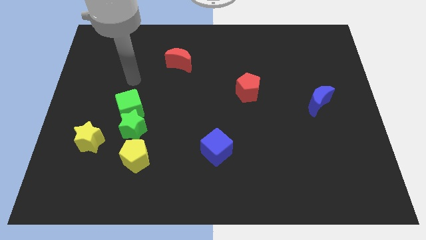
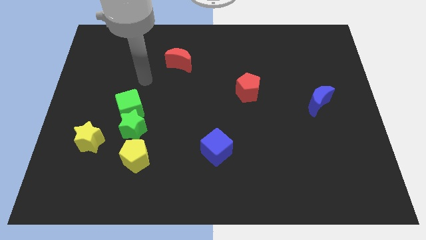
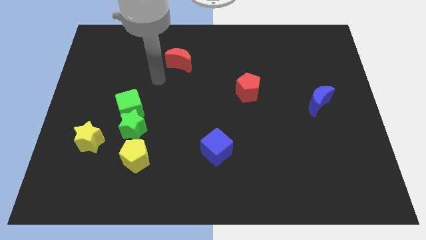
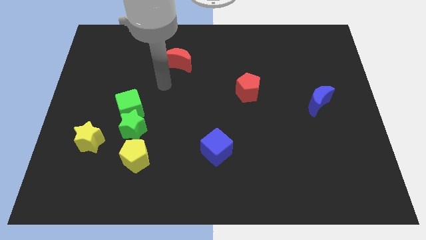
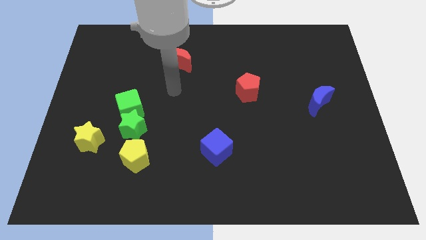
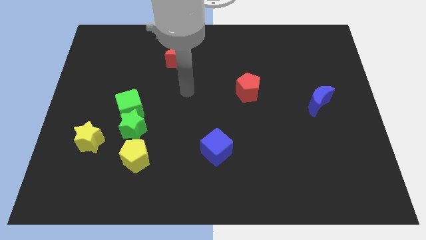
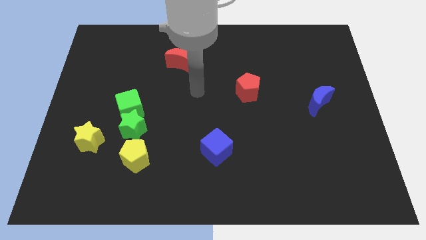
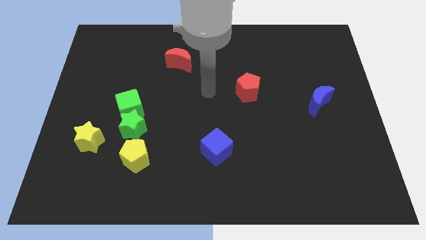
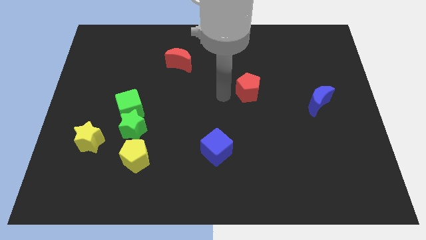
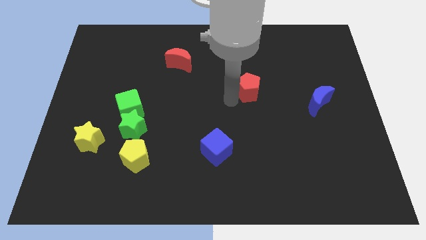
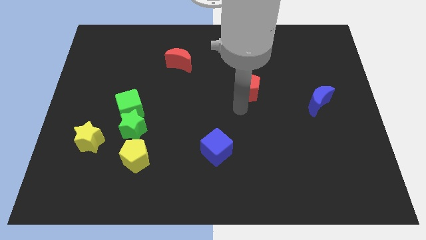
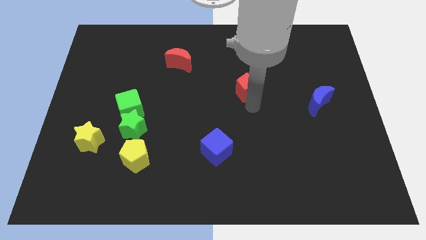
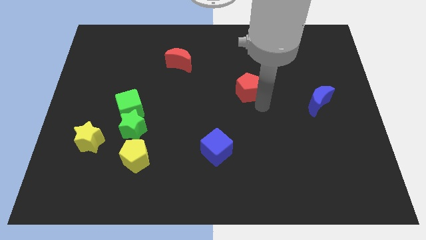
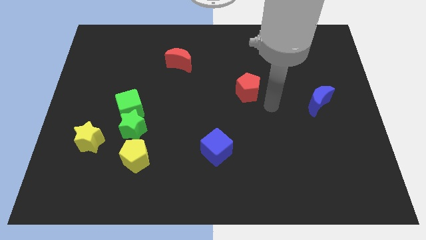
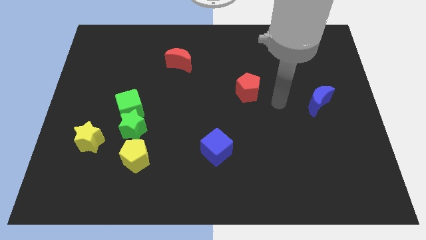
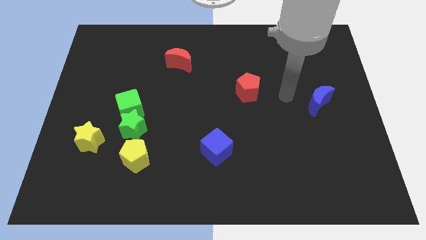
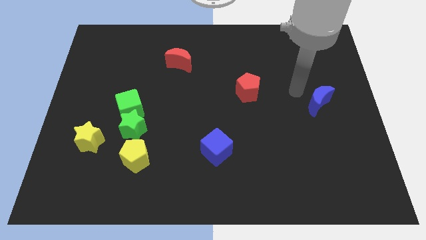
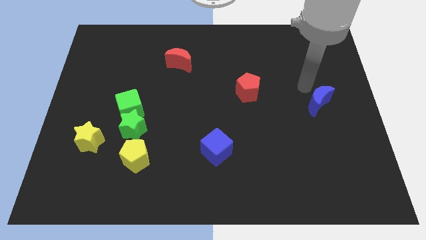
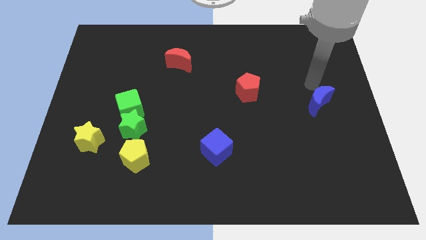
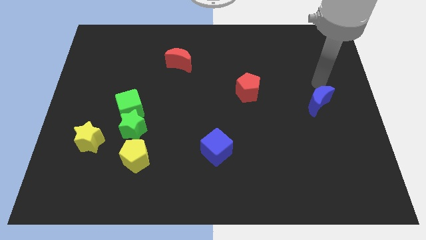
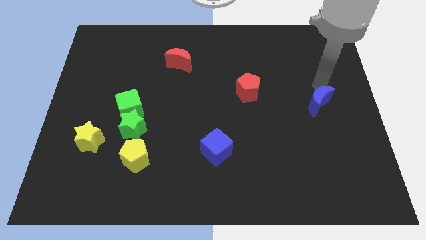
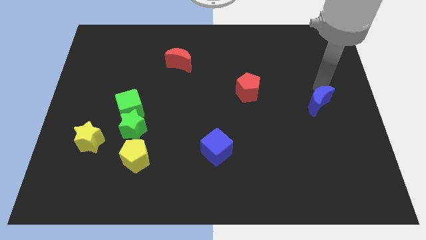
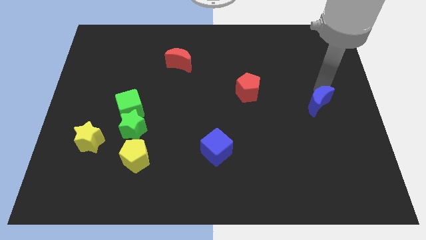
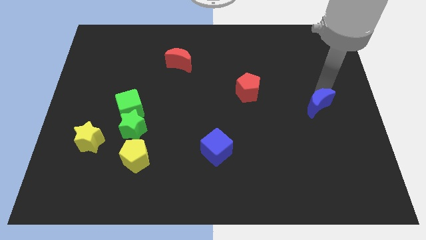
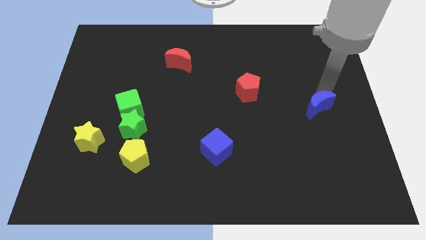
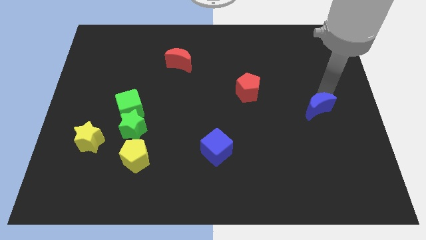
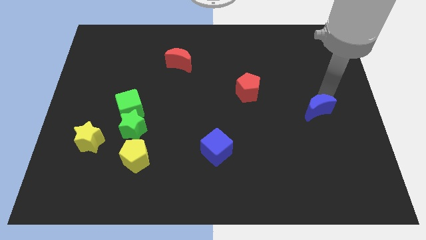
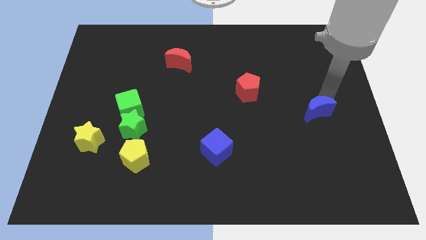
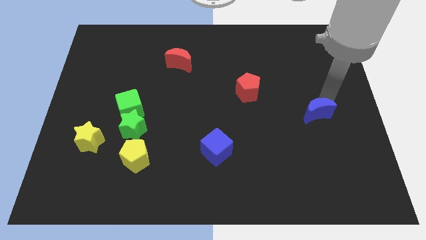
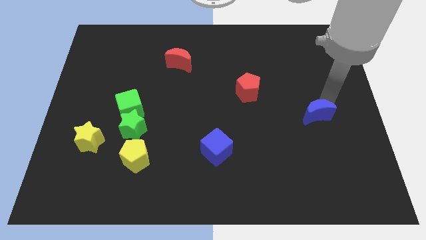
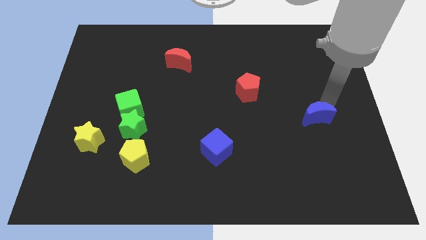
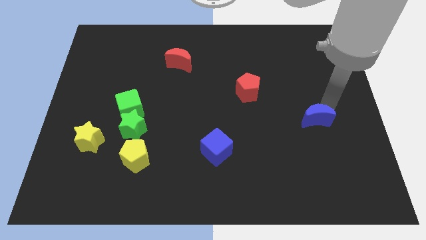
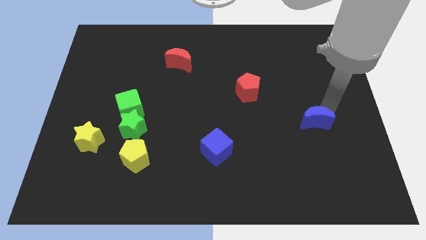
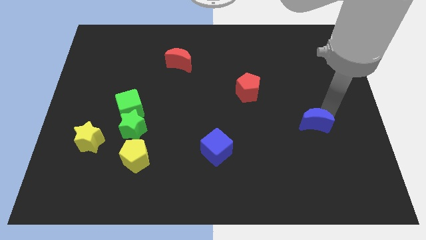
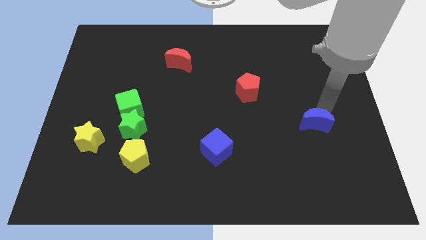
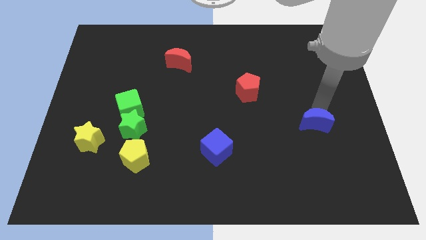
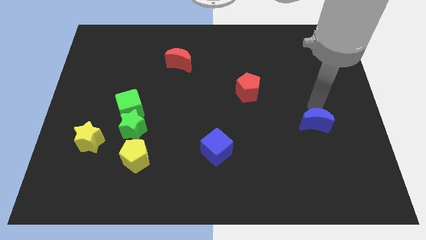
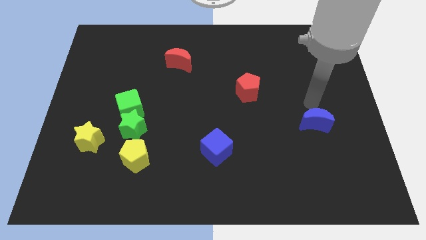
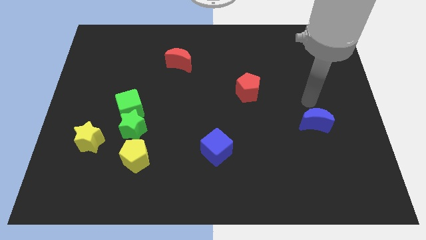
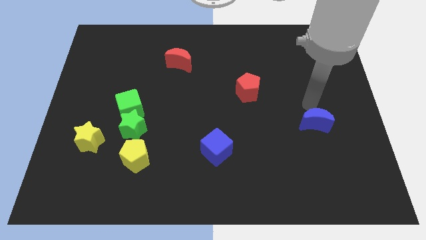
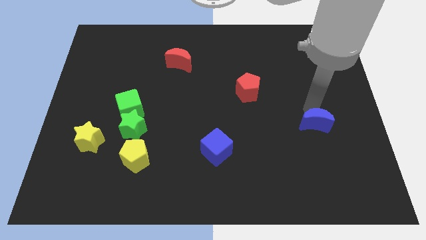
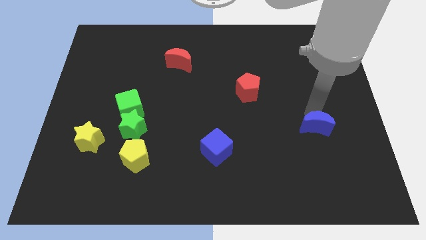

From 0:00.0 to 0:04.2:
slide the blue moon down somewhat

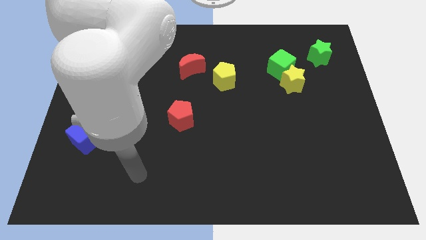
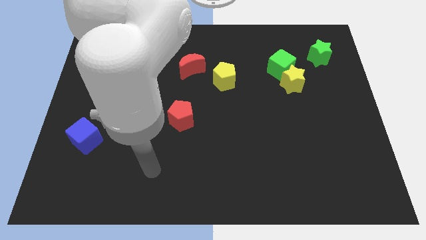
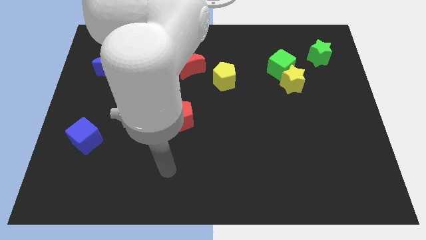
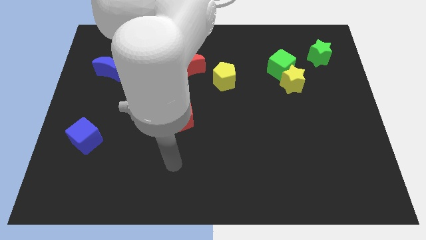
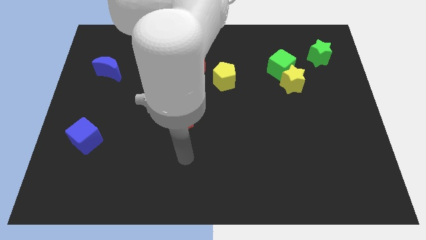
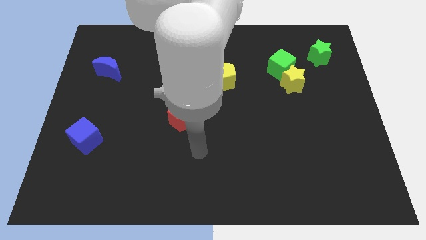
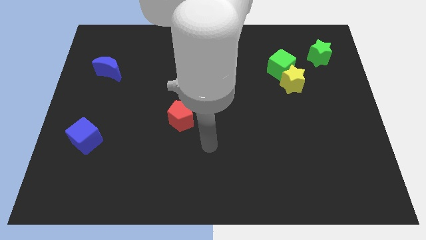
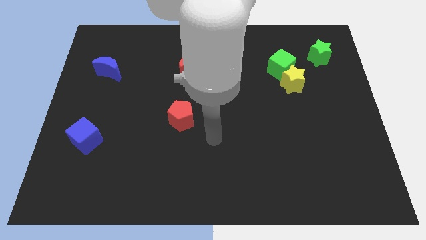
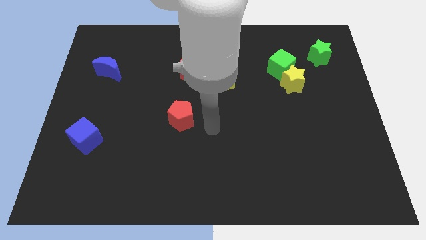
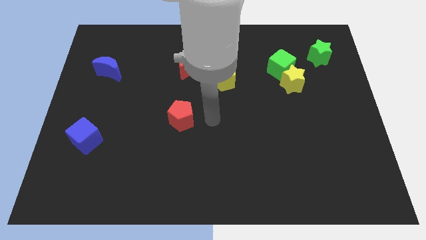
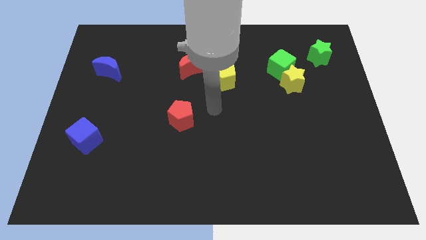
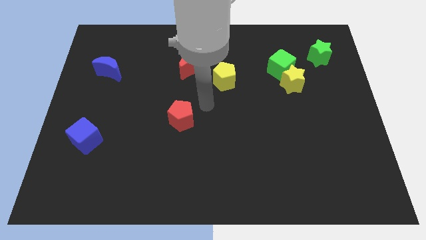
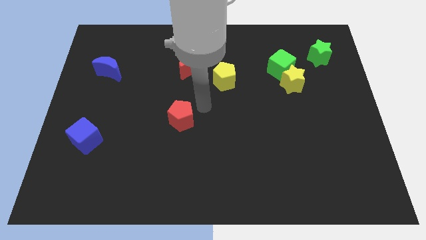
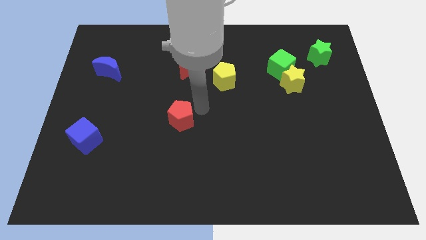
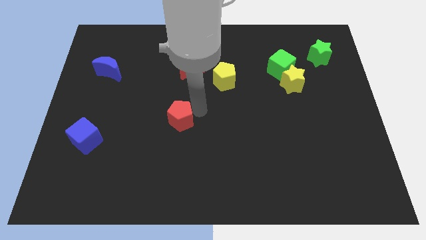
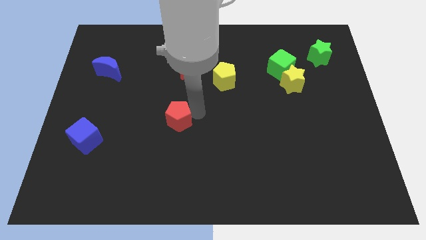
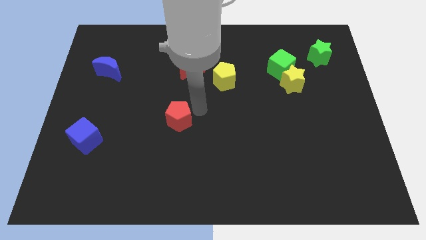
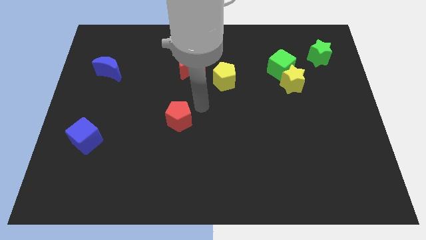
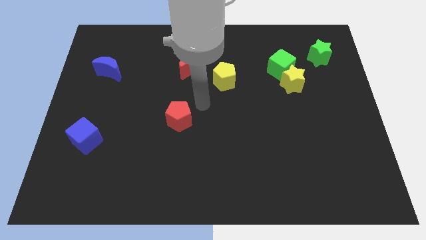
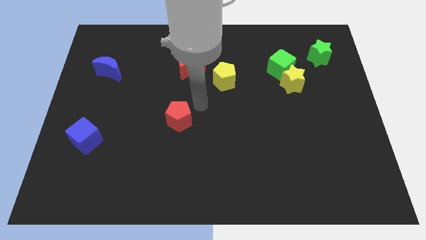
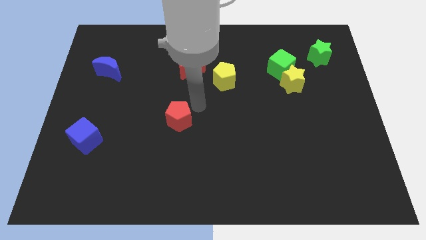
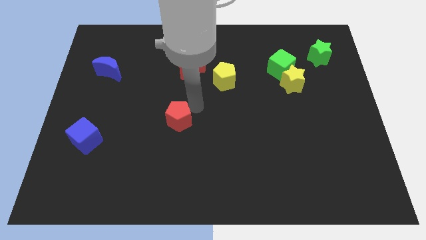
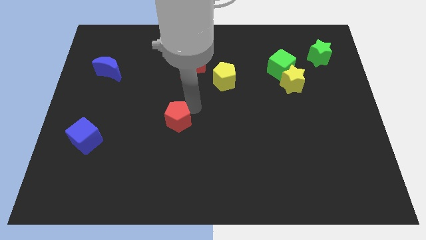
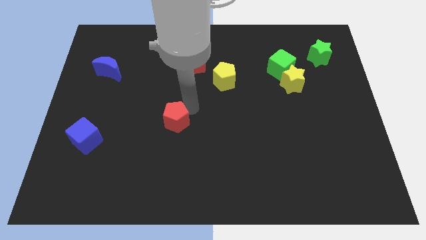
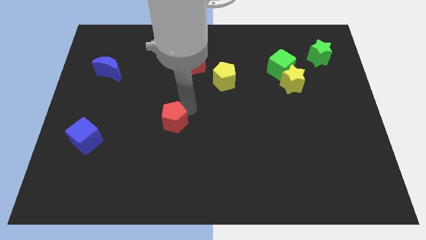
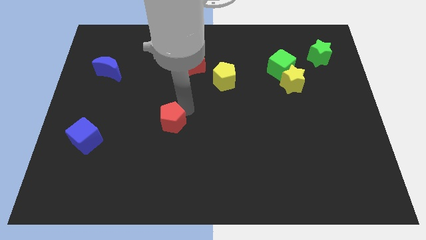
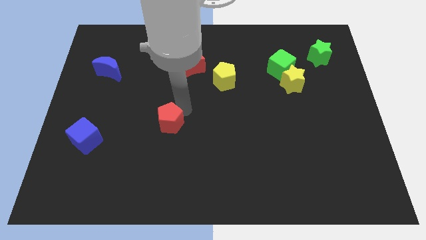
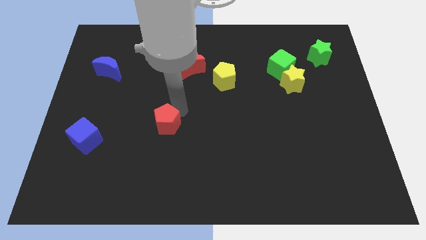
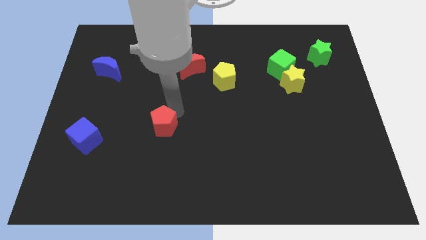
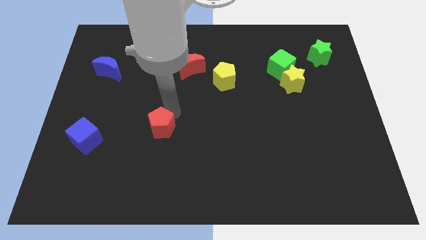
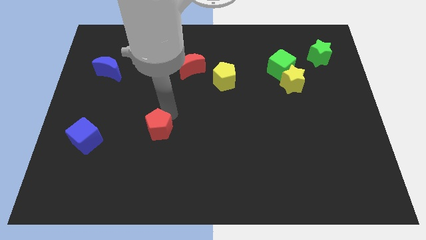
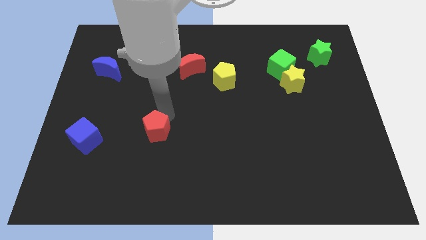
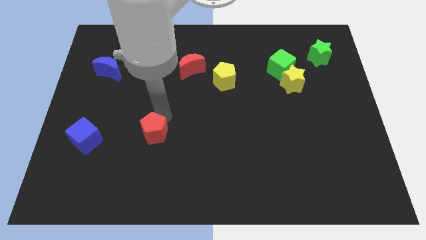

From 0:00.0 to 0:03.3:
push the red pentagon slightly downwards and then left

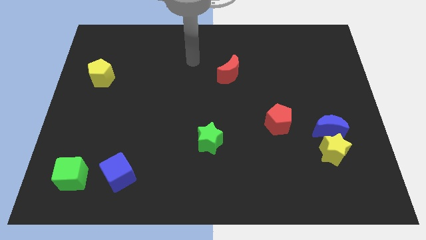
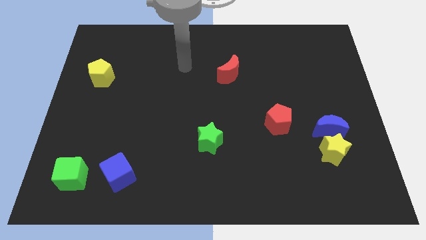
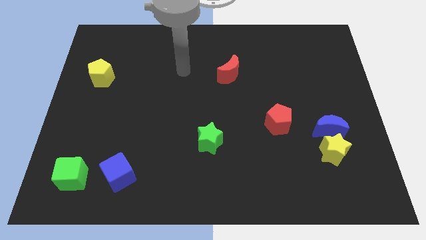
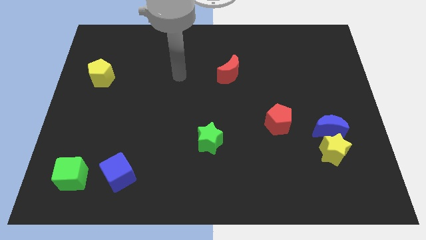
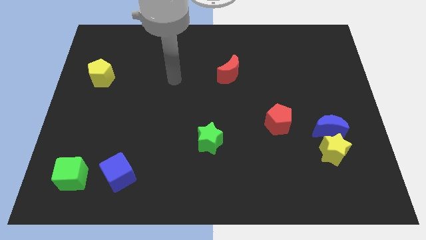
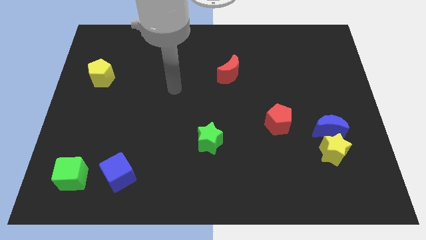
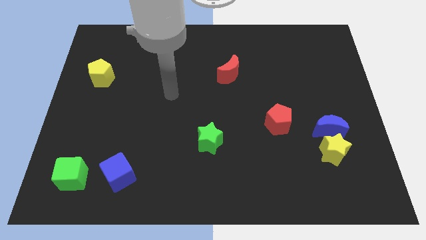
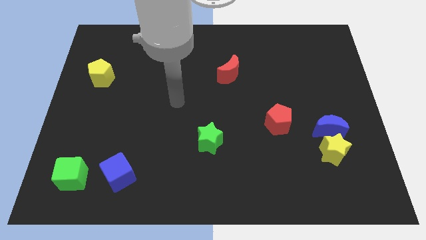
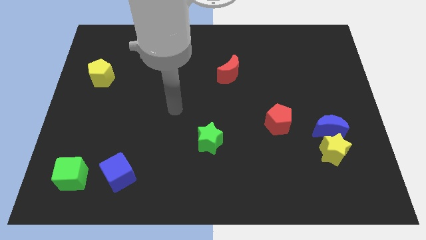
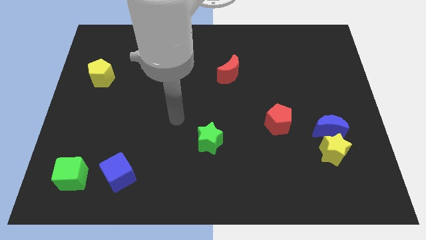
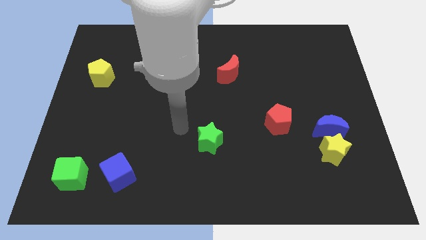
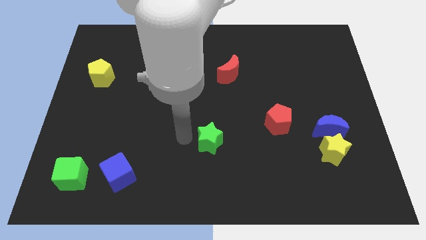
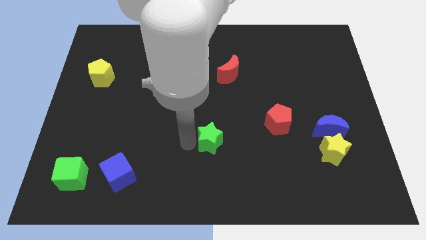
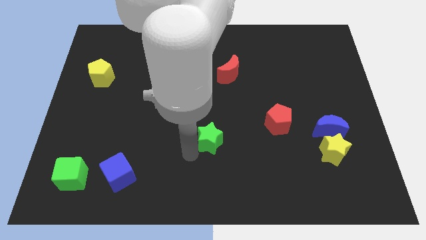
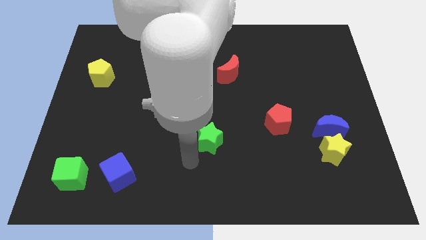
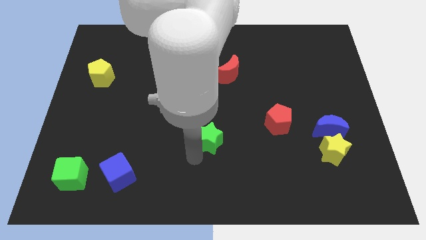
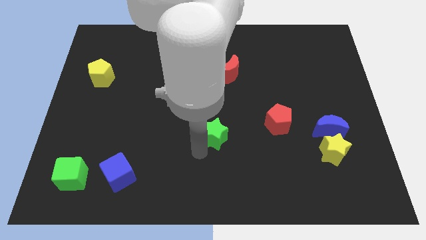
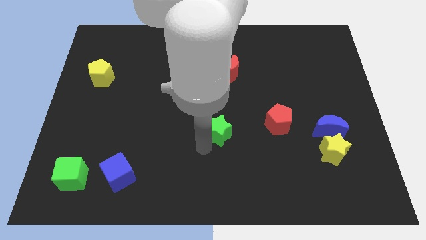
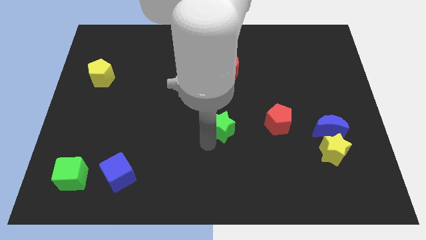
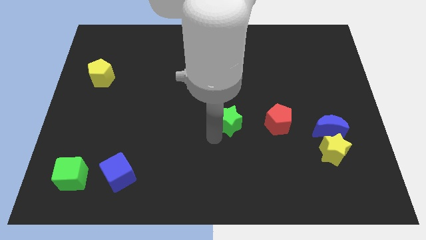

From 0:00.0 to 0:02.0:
slightly slide the green star upwards and then right
